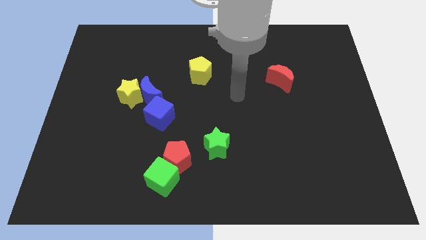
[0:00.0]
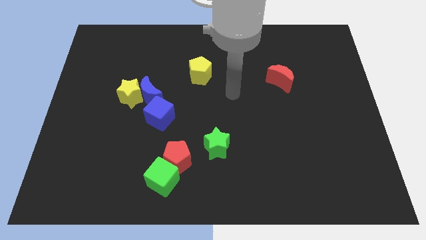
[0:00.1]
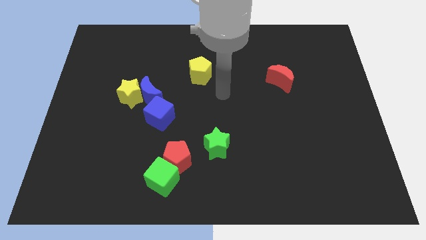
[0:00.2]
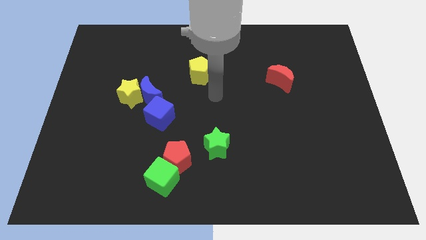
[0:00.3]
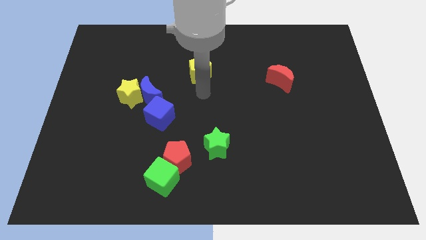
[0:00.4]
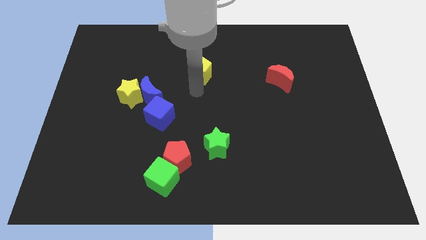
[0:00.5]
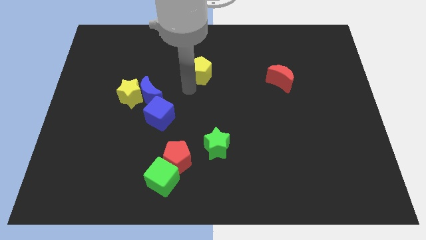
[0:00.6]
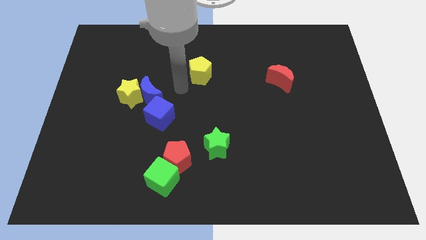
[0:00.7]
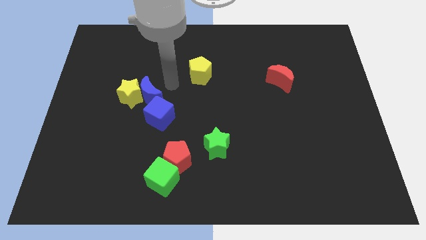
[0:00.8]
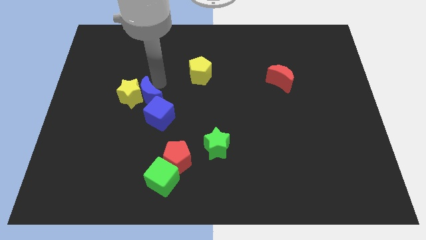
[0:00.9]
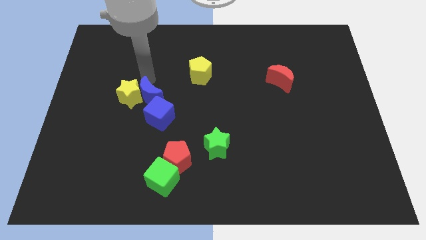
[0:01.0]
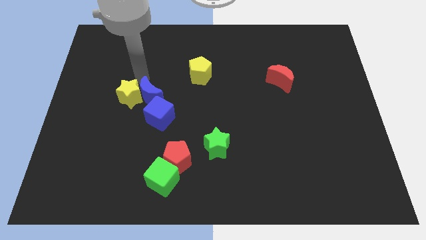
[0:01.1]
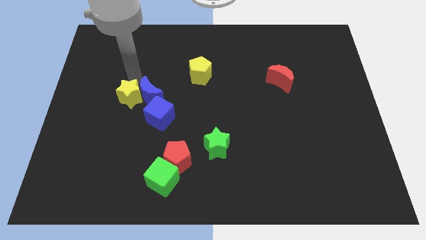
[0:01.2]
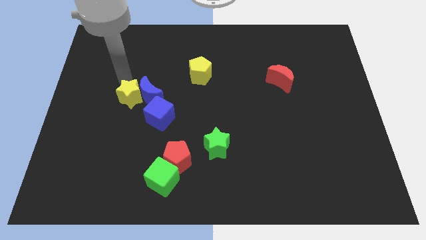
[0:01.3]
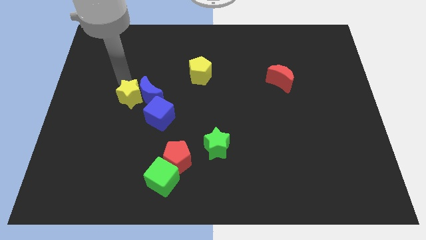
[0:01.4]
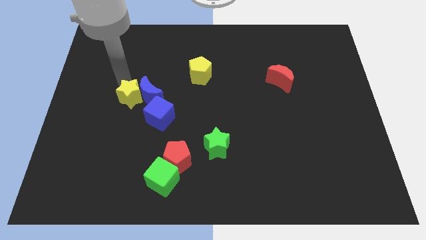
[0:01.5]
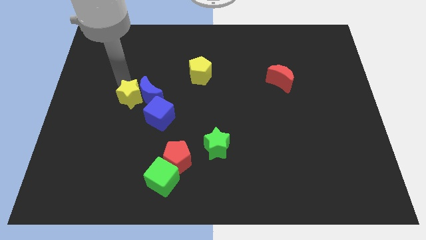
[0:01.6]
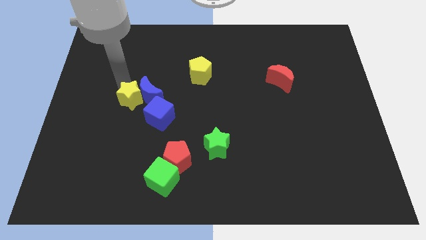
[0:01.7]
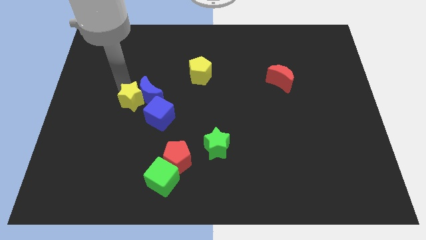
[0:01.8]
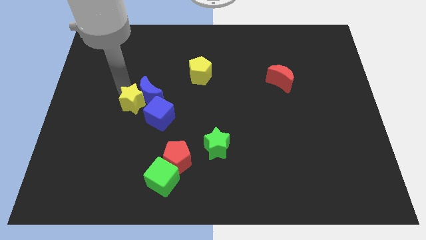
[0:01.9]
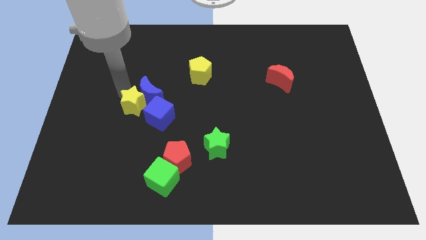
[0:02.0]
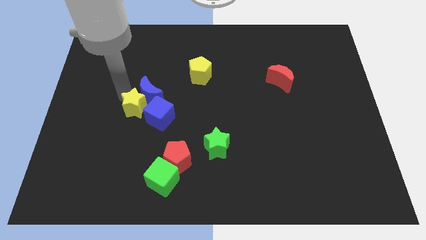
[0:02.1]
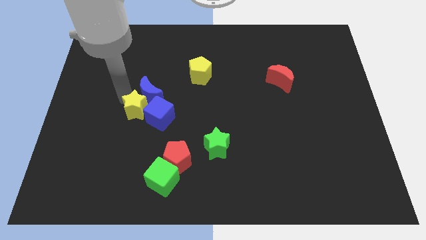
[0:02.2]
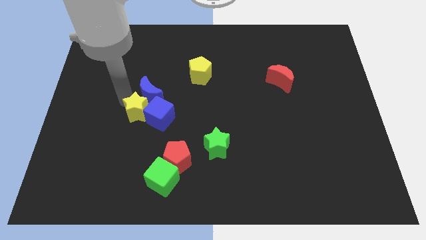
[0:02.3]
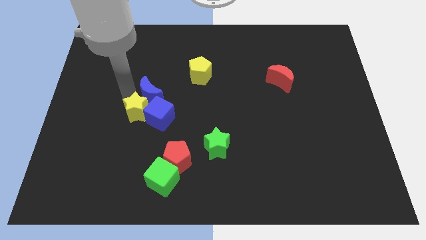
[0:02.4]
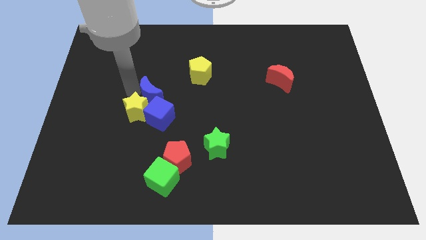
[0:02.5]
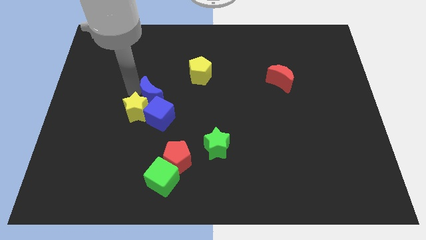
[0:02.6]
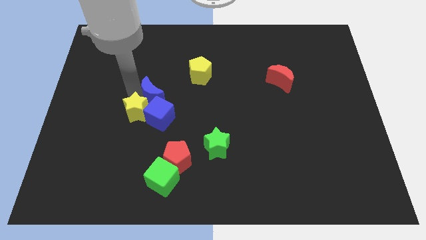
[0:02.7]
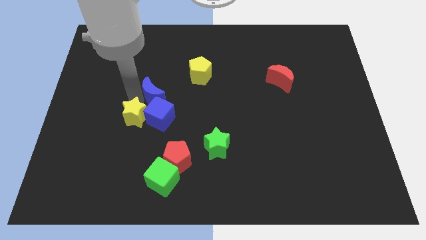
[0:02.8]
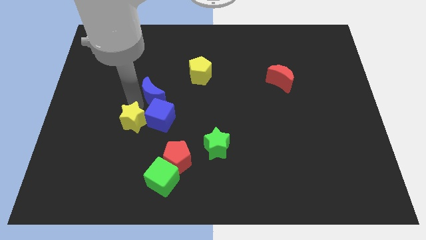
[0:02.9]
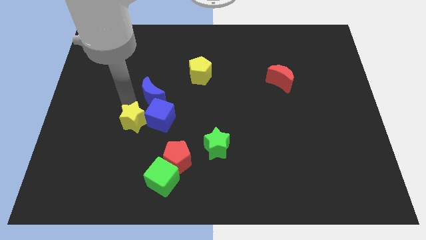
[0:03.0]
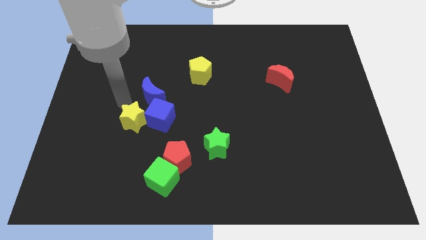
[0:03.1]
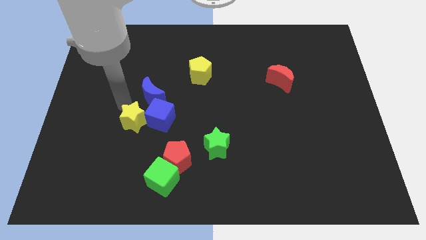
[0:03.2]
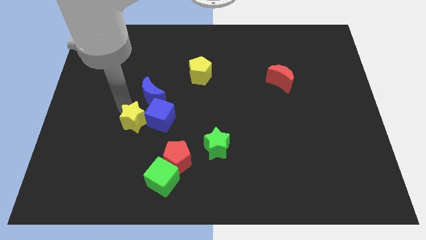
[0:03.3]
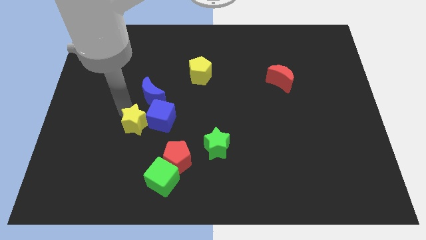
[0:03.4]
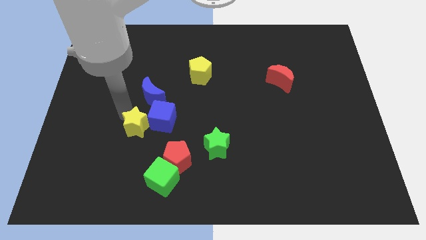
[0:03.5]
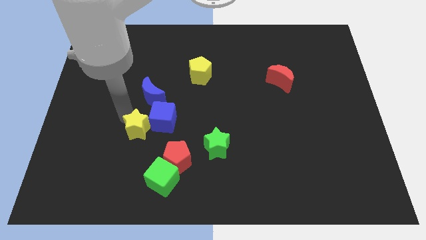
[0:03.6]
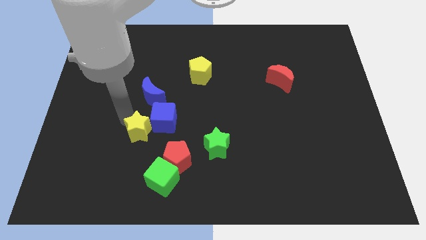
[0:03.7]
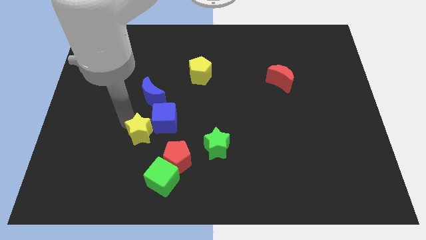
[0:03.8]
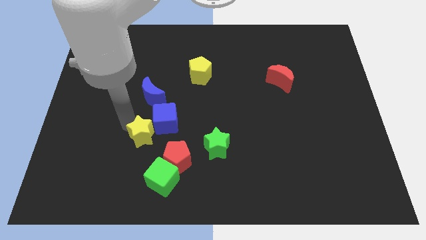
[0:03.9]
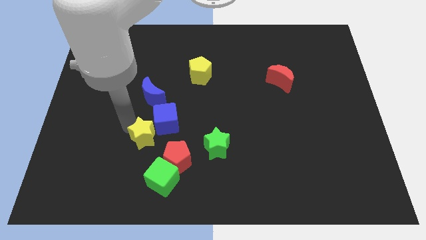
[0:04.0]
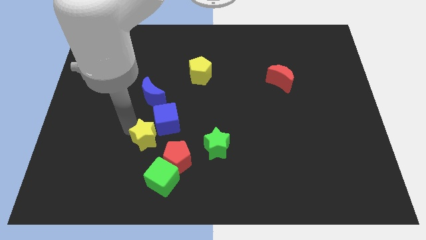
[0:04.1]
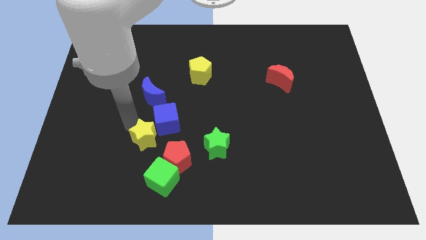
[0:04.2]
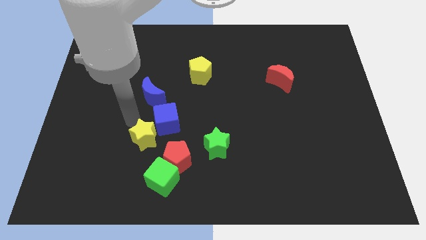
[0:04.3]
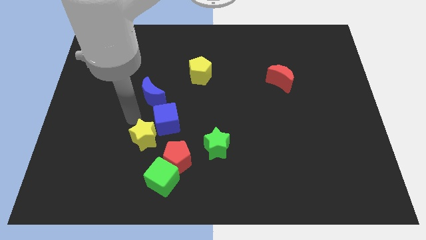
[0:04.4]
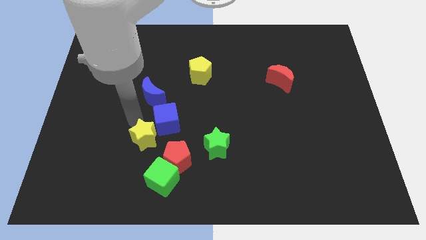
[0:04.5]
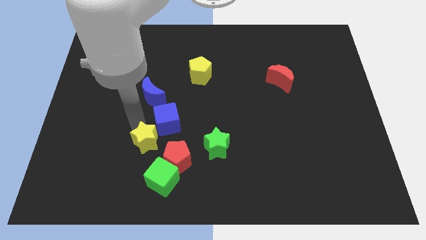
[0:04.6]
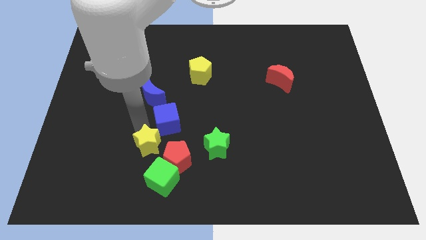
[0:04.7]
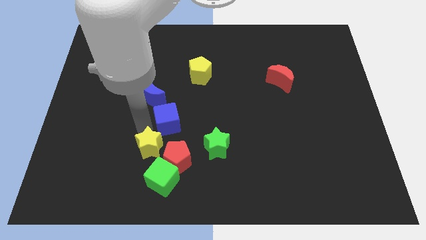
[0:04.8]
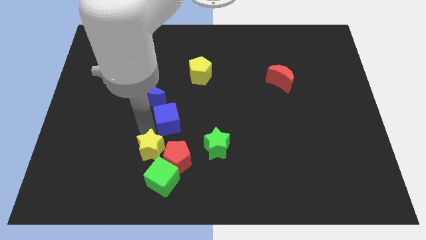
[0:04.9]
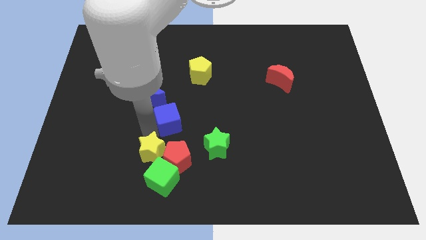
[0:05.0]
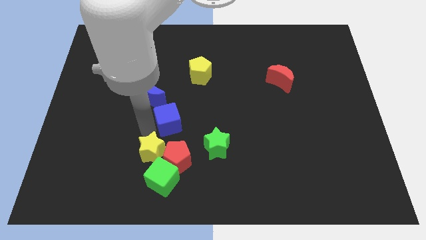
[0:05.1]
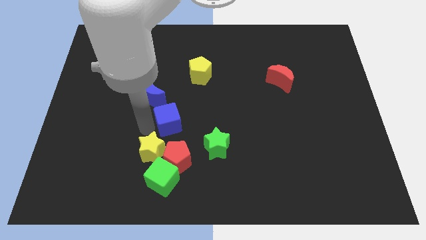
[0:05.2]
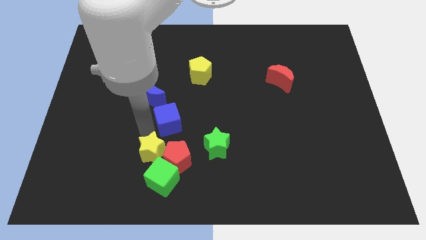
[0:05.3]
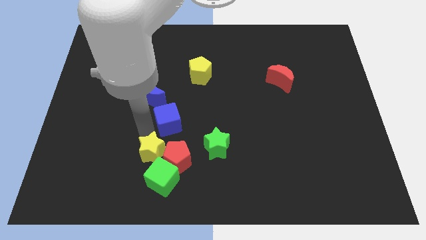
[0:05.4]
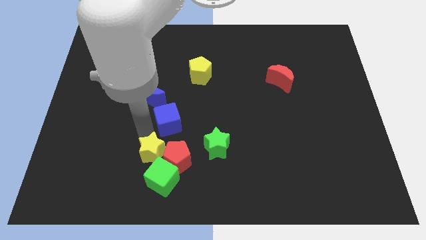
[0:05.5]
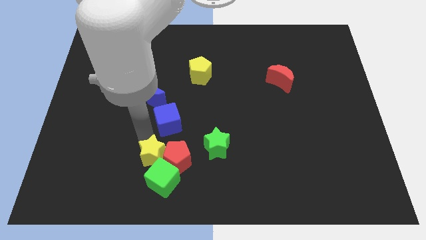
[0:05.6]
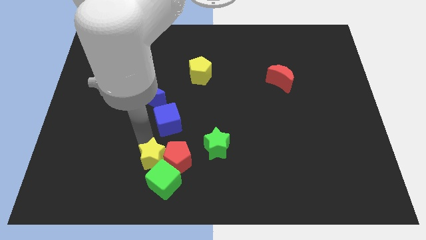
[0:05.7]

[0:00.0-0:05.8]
put the yellow star close to the green cube

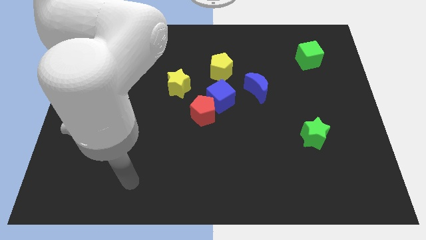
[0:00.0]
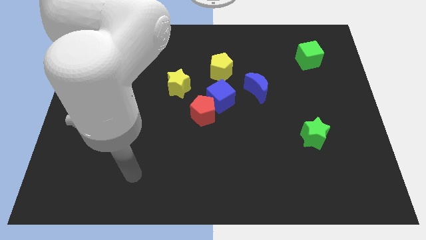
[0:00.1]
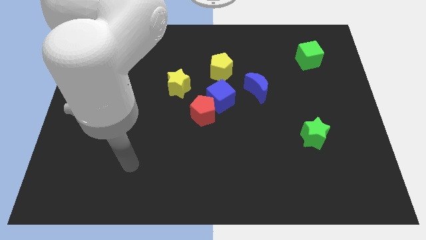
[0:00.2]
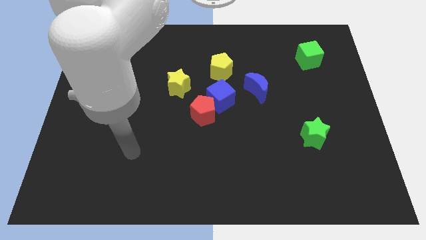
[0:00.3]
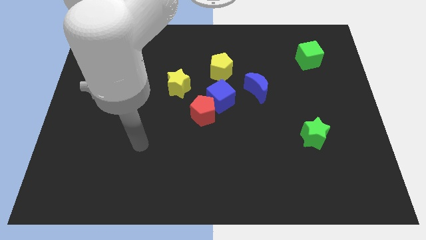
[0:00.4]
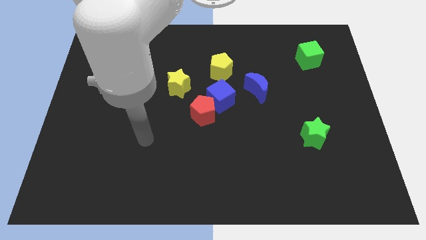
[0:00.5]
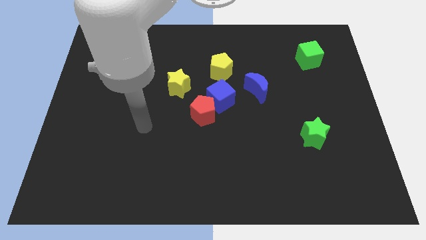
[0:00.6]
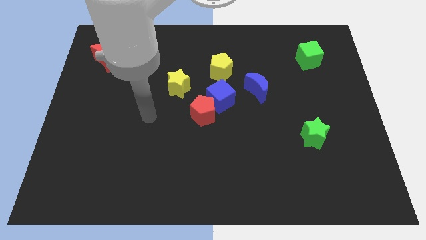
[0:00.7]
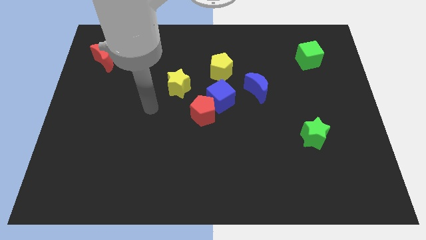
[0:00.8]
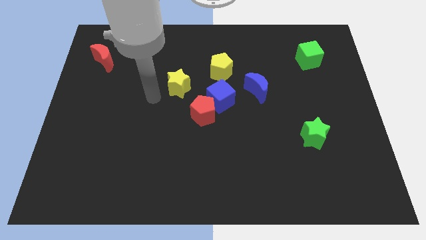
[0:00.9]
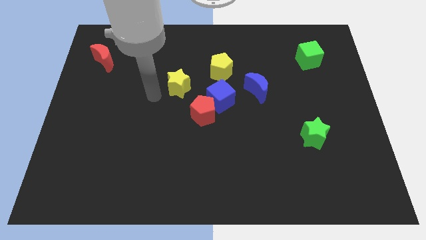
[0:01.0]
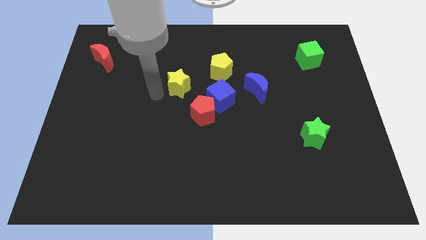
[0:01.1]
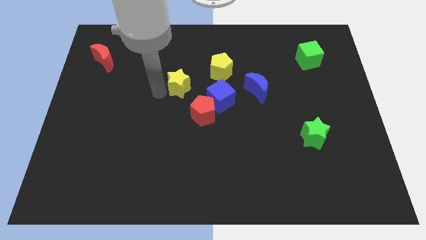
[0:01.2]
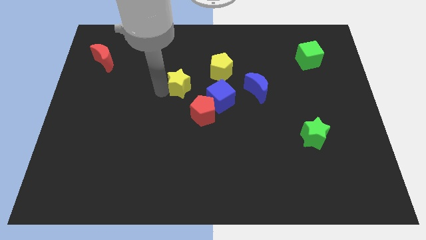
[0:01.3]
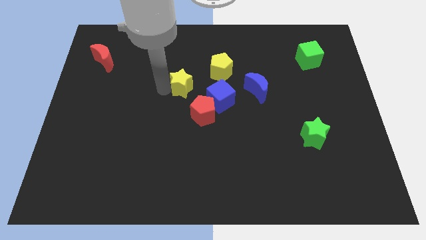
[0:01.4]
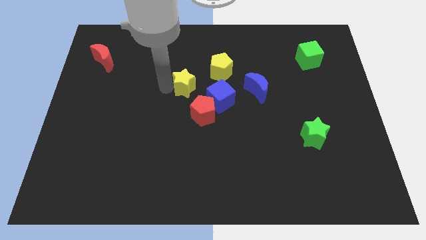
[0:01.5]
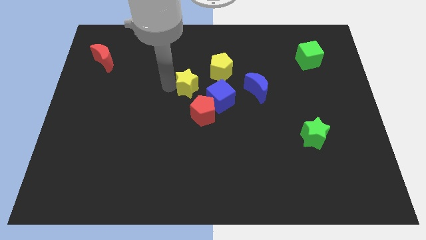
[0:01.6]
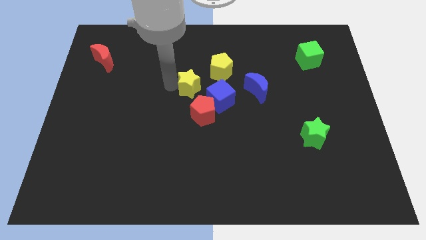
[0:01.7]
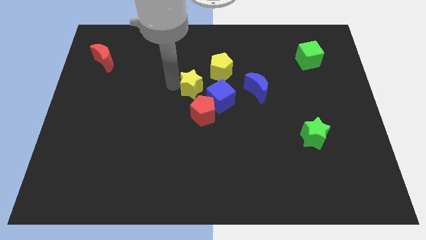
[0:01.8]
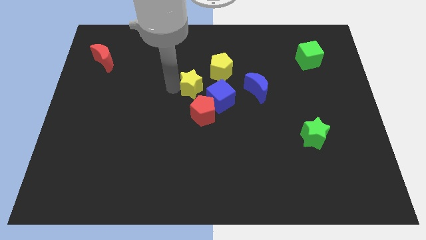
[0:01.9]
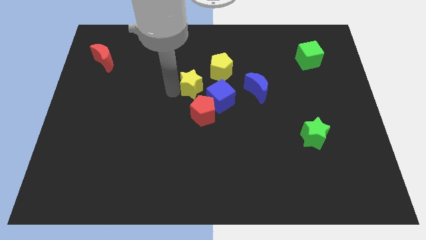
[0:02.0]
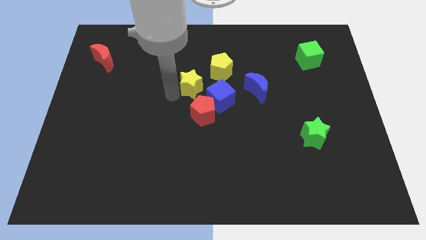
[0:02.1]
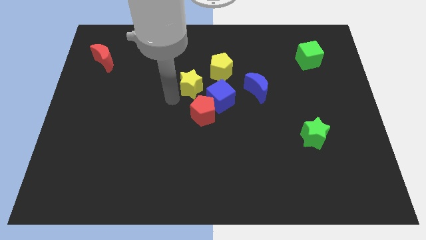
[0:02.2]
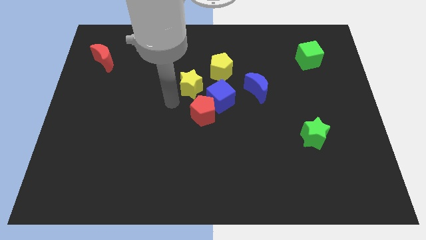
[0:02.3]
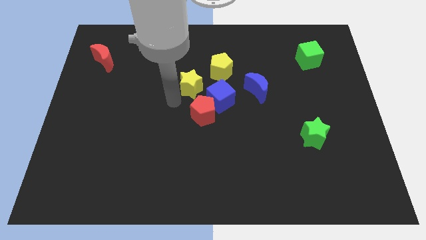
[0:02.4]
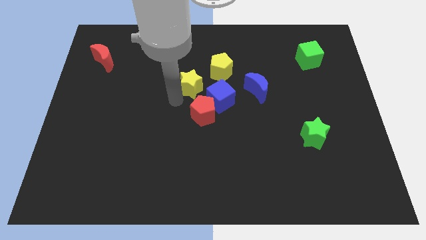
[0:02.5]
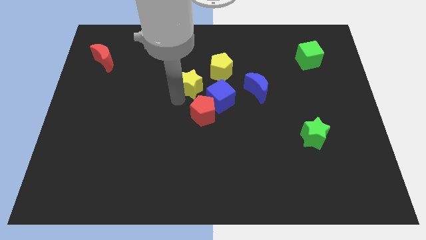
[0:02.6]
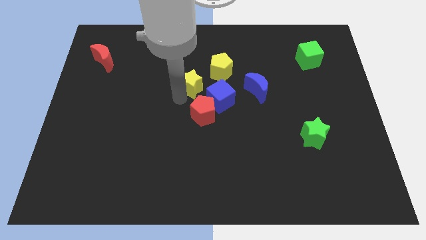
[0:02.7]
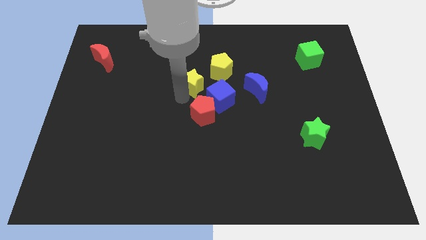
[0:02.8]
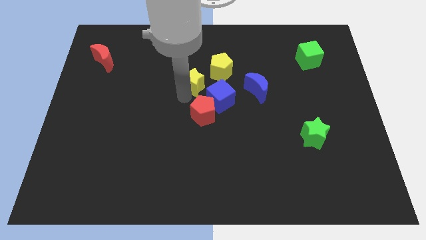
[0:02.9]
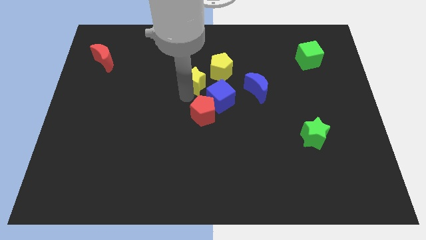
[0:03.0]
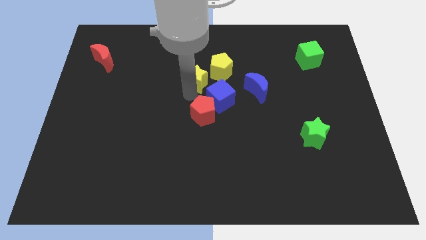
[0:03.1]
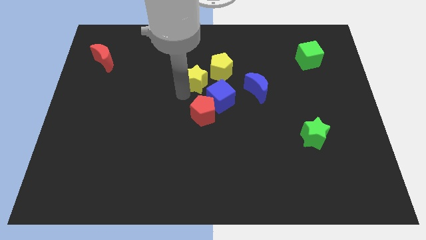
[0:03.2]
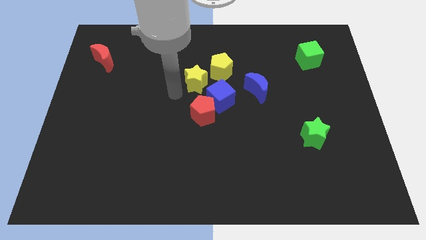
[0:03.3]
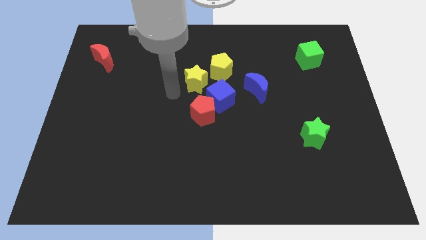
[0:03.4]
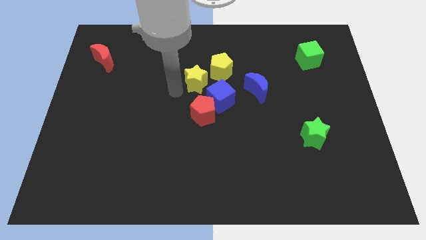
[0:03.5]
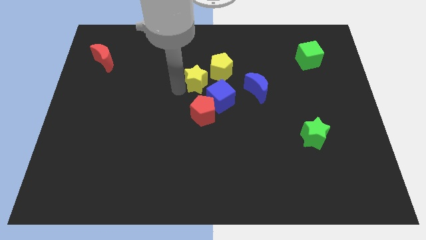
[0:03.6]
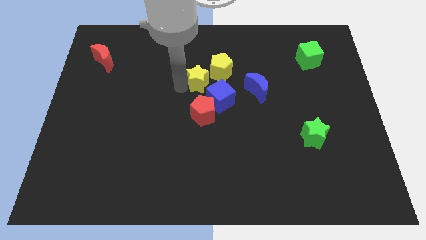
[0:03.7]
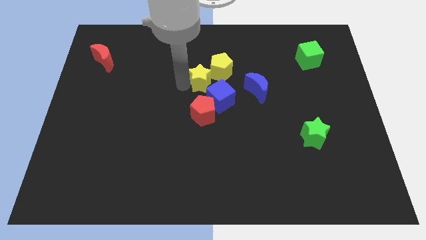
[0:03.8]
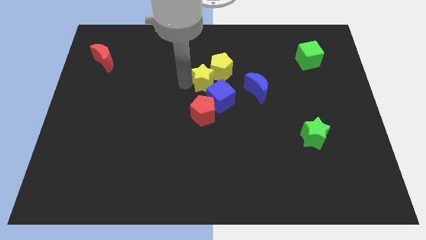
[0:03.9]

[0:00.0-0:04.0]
move the yellow star to the yellow pentagon
